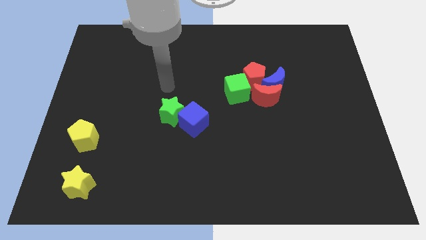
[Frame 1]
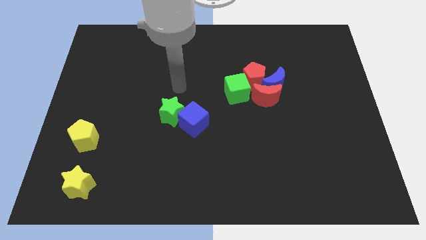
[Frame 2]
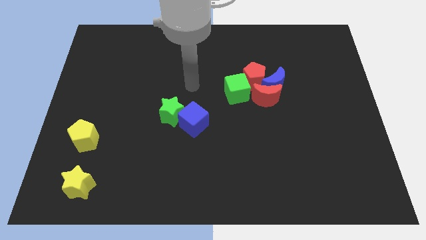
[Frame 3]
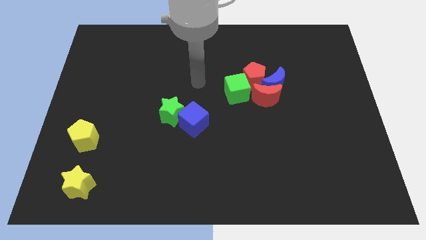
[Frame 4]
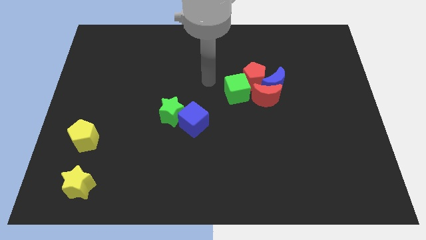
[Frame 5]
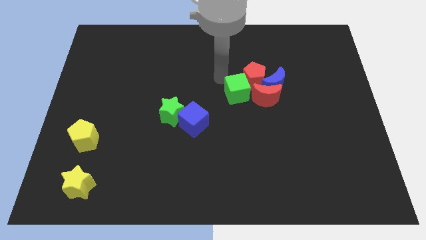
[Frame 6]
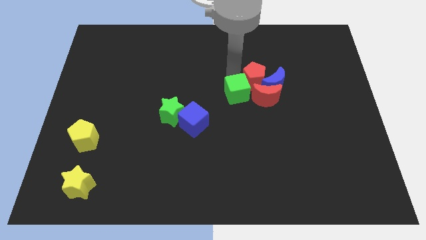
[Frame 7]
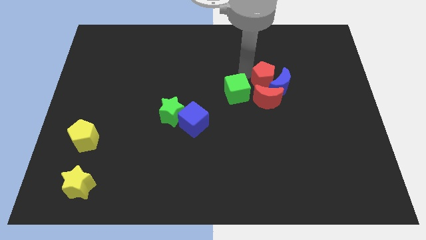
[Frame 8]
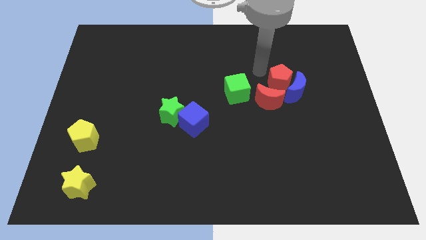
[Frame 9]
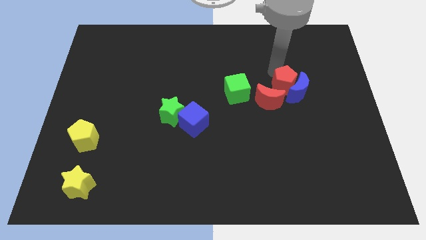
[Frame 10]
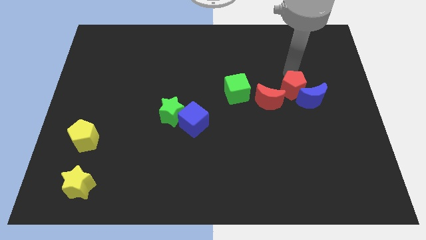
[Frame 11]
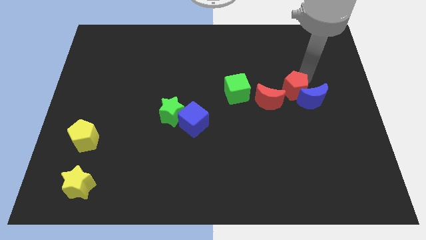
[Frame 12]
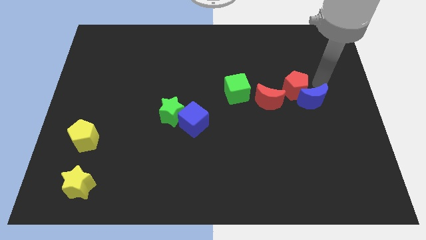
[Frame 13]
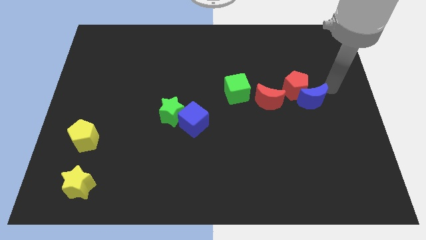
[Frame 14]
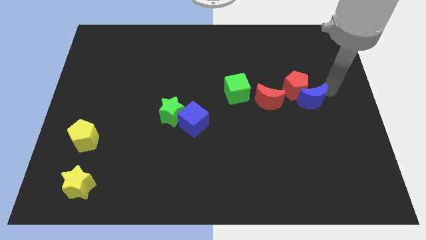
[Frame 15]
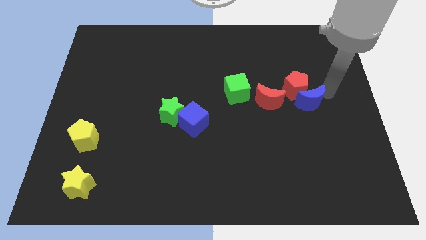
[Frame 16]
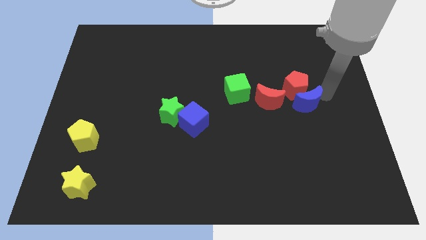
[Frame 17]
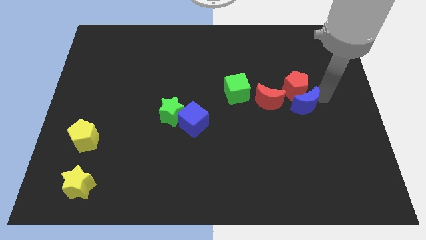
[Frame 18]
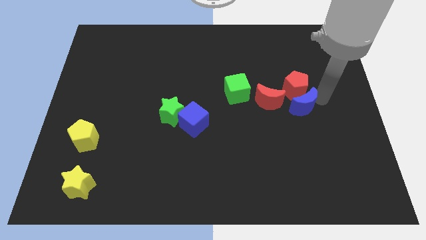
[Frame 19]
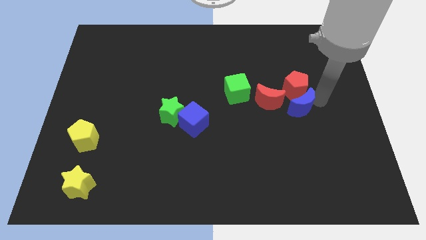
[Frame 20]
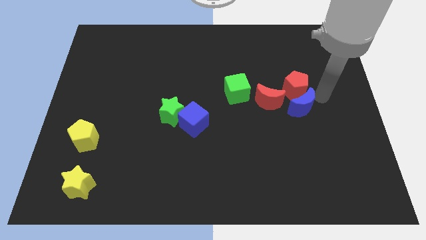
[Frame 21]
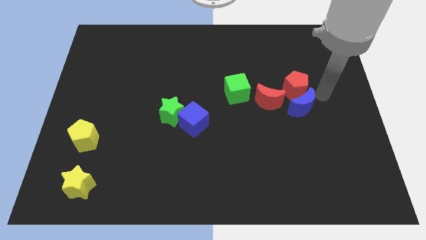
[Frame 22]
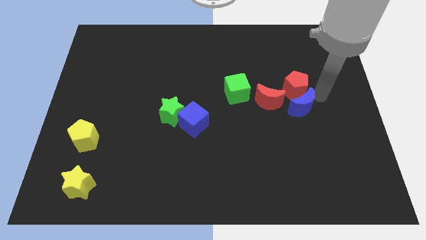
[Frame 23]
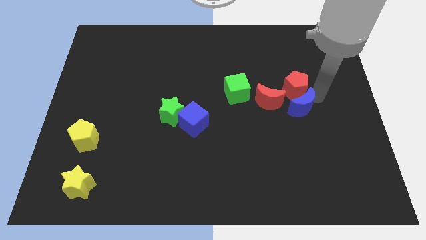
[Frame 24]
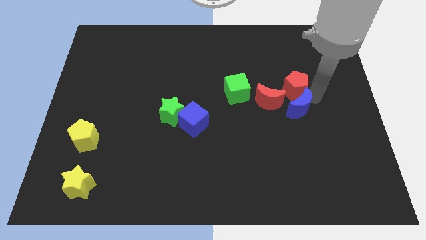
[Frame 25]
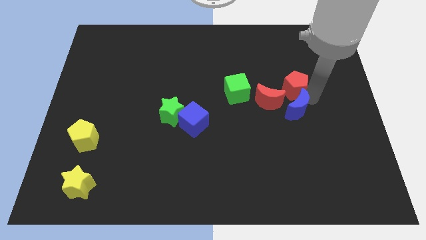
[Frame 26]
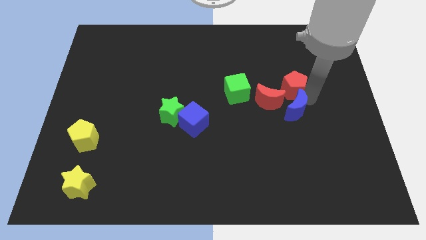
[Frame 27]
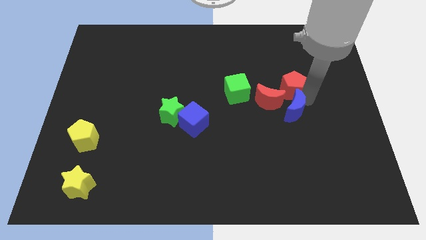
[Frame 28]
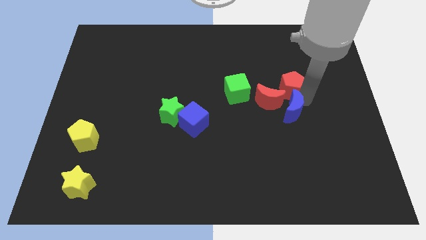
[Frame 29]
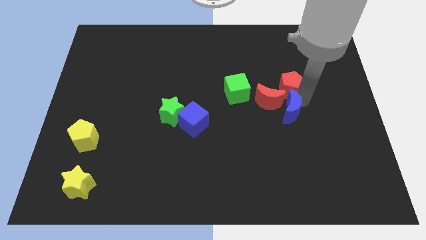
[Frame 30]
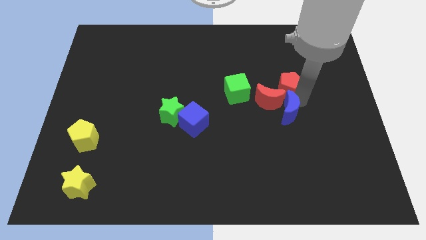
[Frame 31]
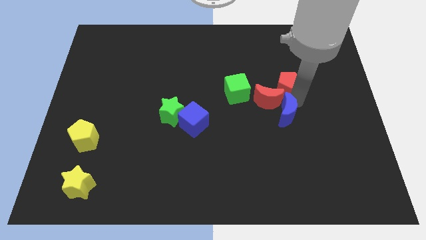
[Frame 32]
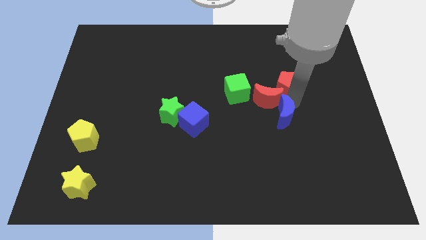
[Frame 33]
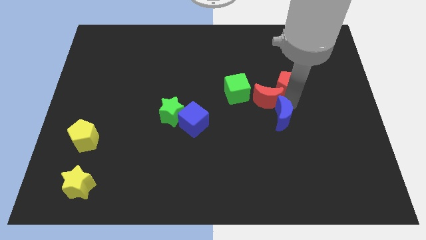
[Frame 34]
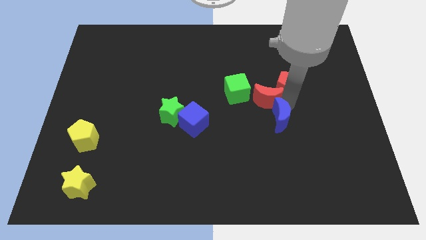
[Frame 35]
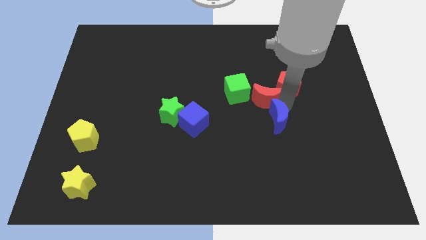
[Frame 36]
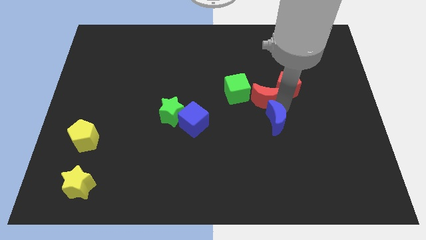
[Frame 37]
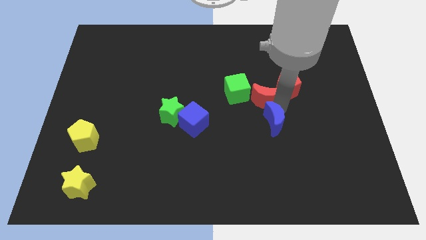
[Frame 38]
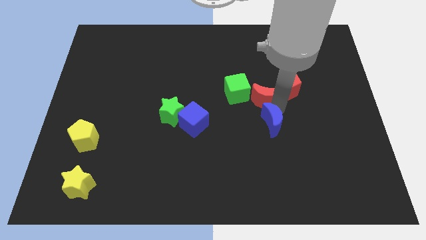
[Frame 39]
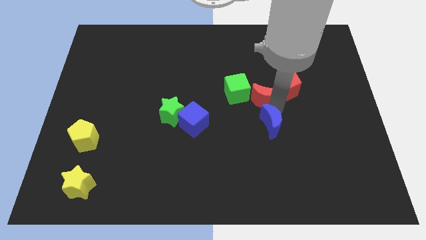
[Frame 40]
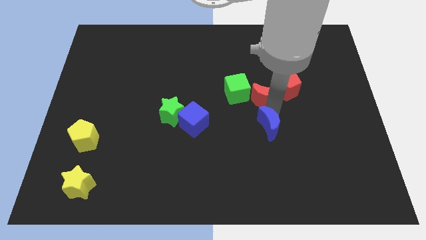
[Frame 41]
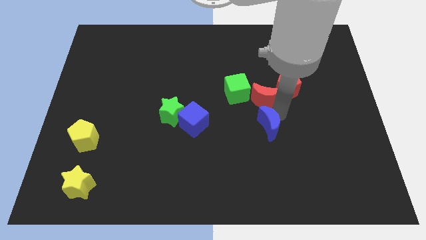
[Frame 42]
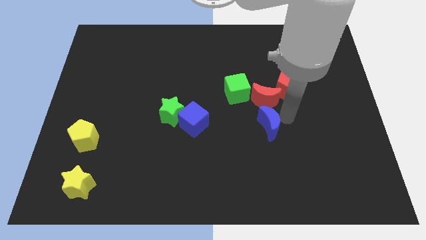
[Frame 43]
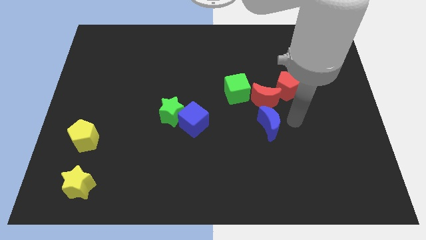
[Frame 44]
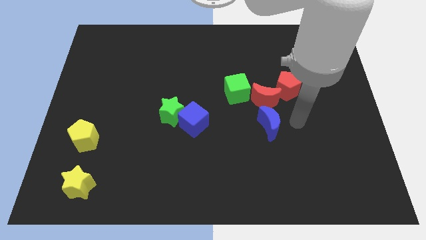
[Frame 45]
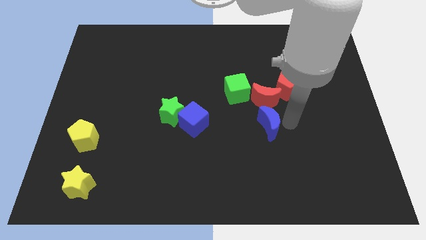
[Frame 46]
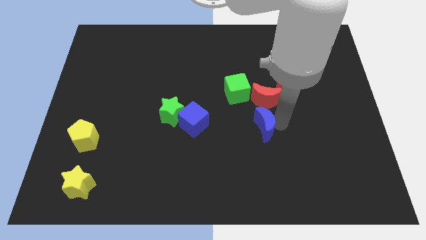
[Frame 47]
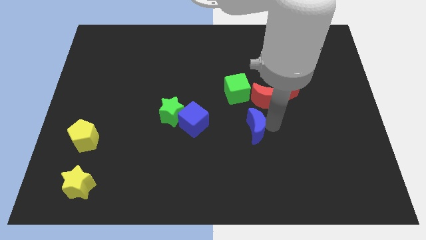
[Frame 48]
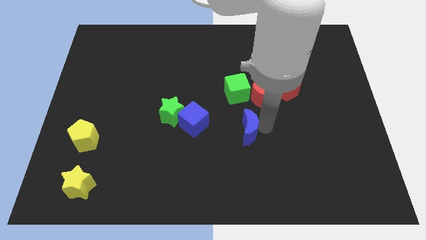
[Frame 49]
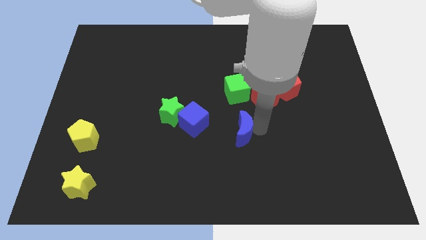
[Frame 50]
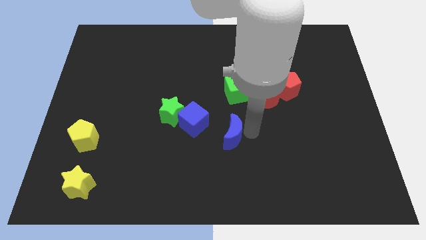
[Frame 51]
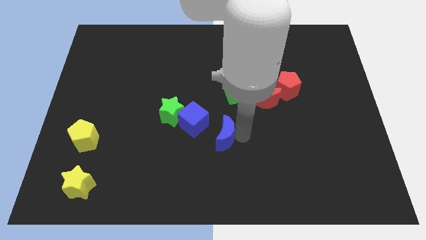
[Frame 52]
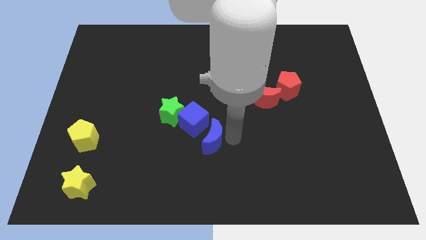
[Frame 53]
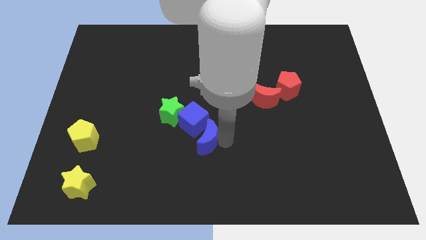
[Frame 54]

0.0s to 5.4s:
push the blue moon next to the blue cube

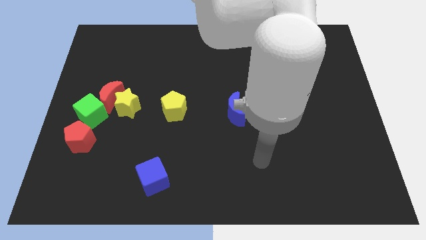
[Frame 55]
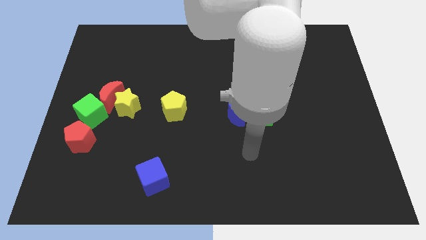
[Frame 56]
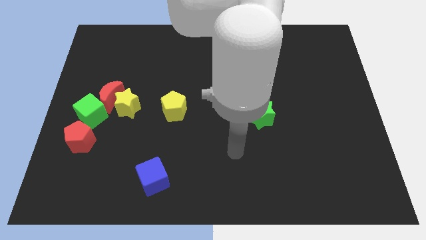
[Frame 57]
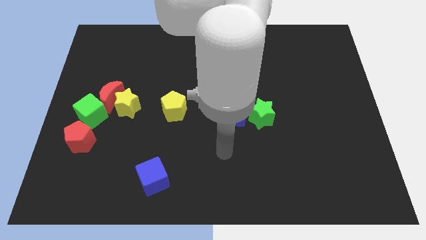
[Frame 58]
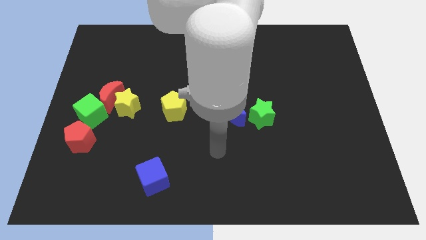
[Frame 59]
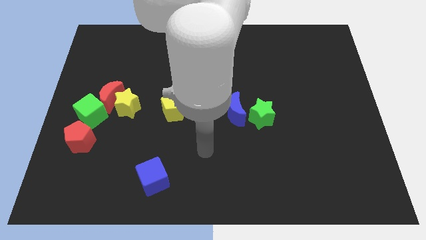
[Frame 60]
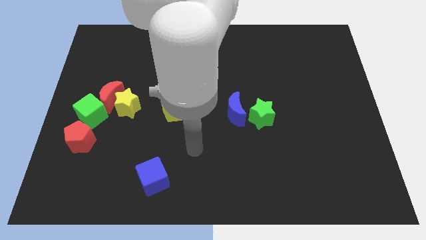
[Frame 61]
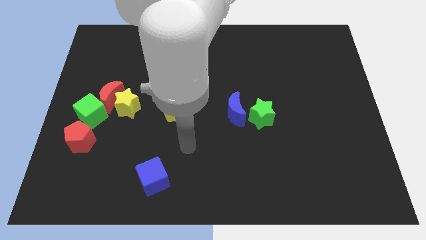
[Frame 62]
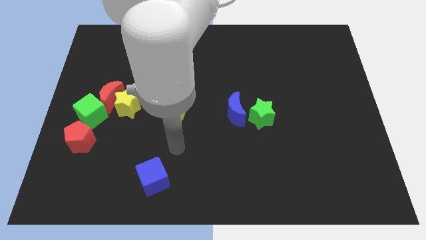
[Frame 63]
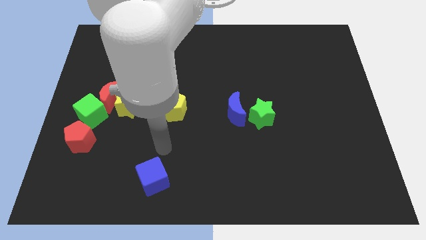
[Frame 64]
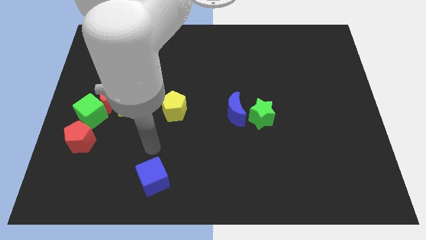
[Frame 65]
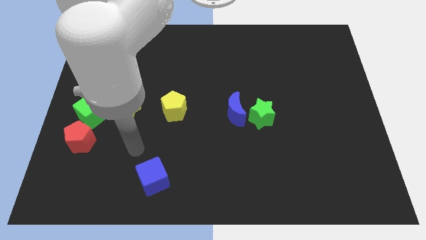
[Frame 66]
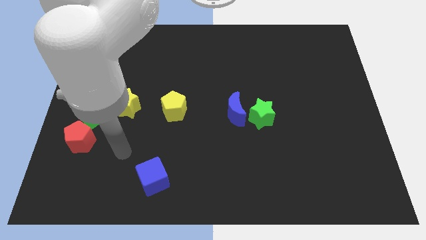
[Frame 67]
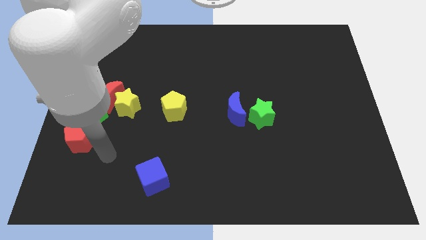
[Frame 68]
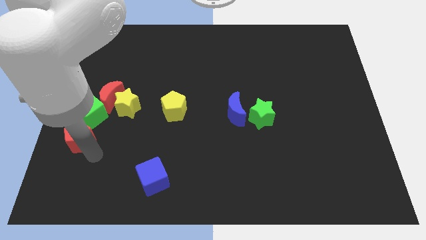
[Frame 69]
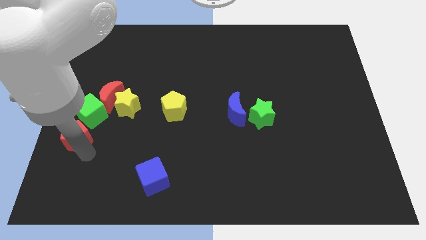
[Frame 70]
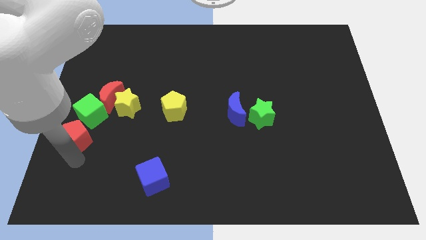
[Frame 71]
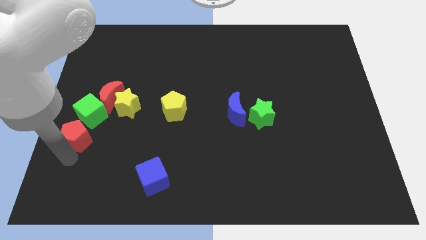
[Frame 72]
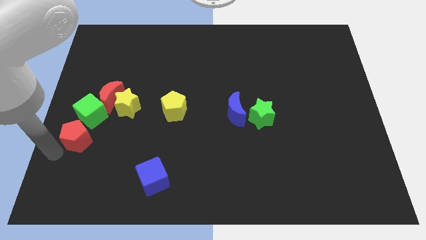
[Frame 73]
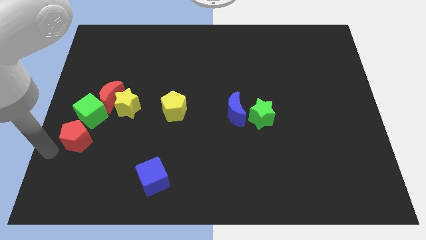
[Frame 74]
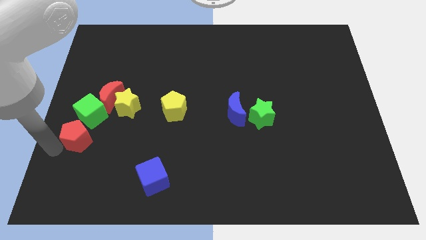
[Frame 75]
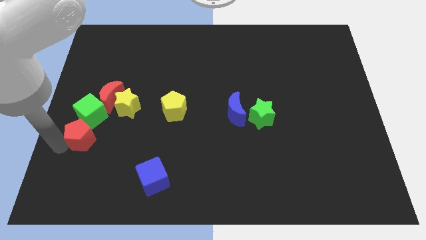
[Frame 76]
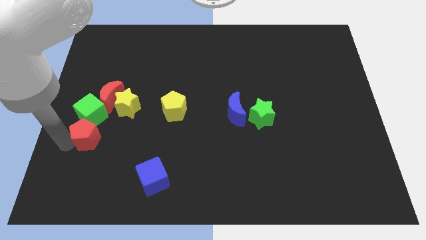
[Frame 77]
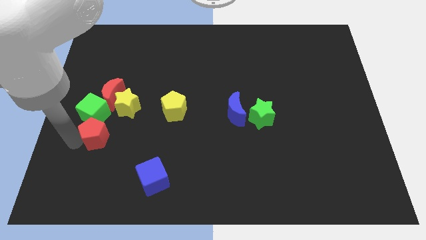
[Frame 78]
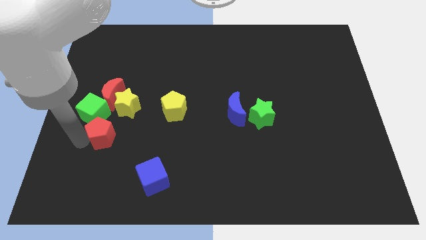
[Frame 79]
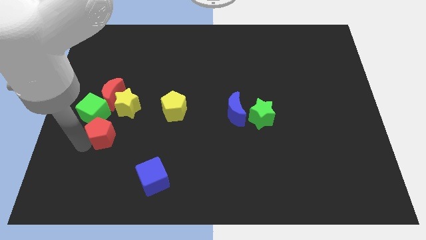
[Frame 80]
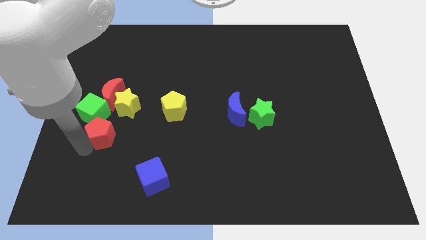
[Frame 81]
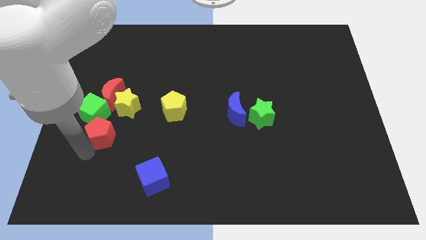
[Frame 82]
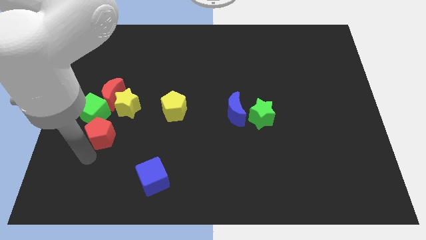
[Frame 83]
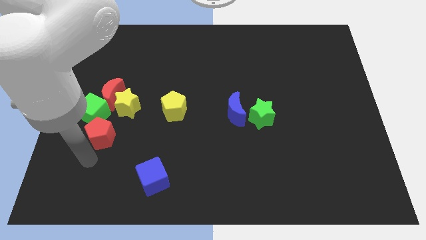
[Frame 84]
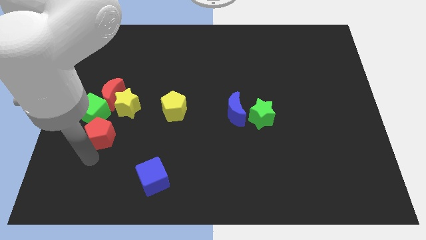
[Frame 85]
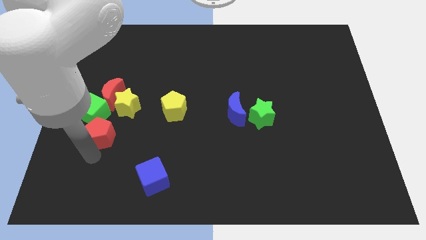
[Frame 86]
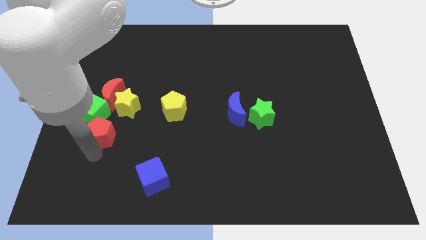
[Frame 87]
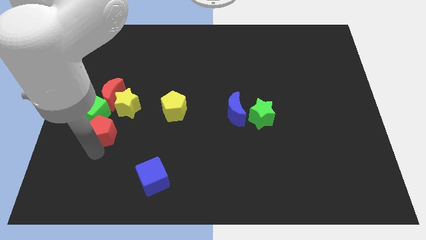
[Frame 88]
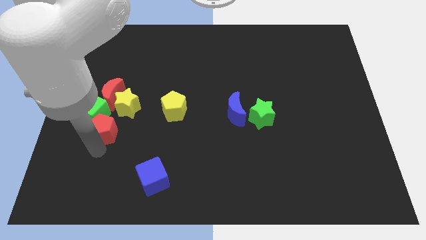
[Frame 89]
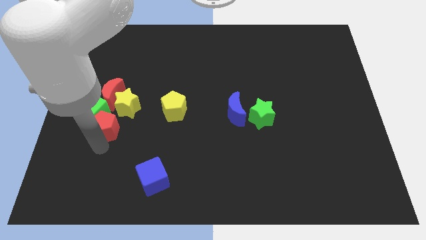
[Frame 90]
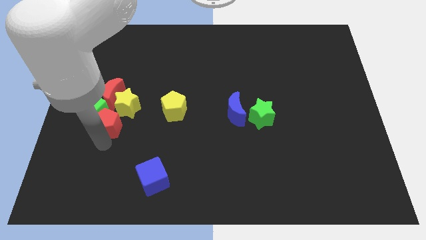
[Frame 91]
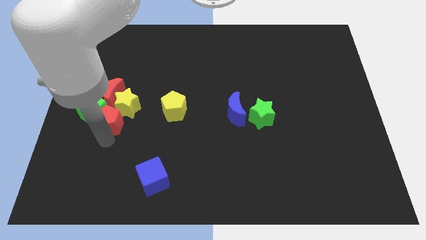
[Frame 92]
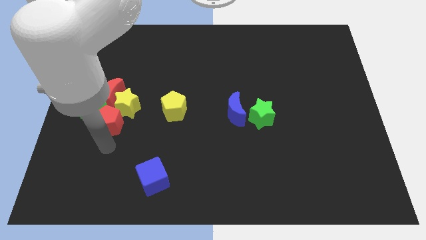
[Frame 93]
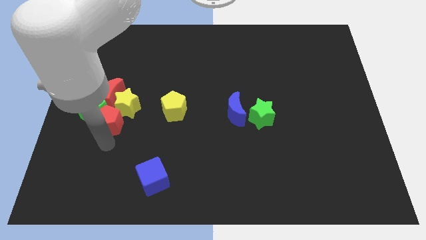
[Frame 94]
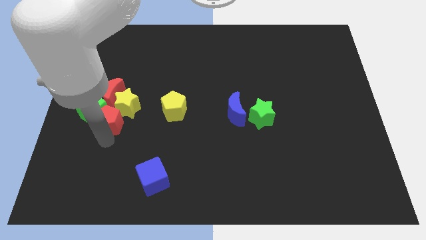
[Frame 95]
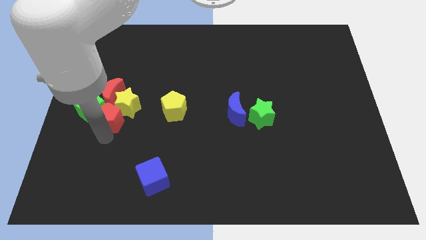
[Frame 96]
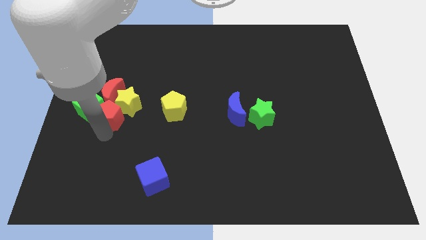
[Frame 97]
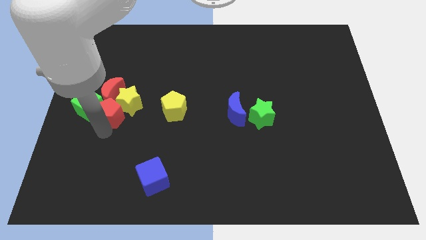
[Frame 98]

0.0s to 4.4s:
put the red pentagon towards the red moon
